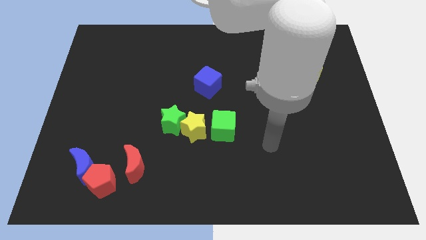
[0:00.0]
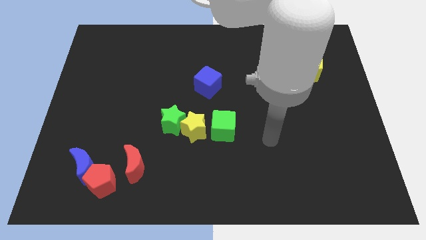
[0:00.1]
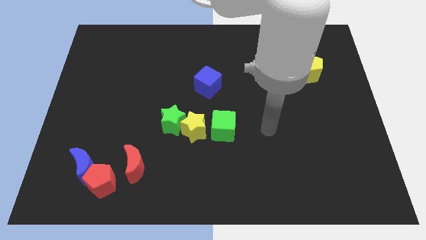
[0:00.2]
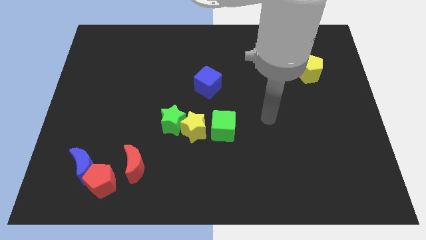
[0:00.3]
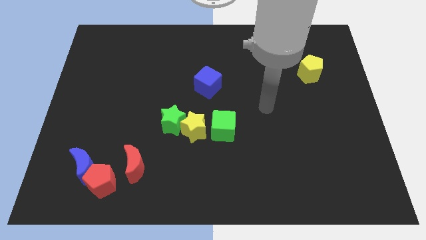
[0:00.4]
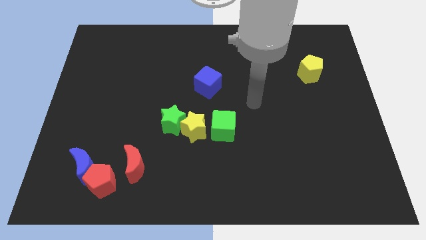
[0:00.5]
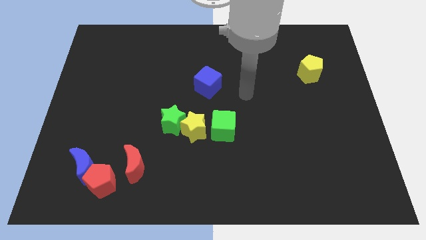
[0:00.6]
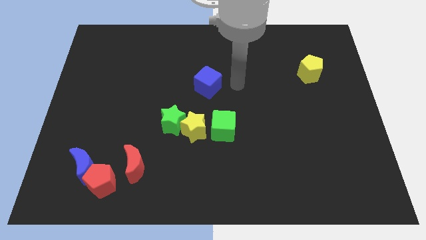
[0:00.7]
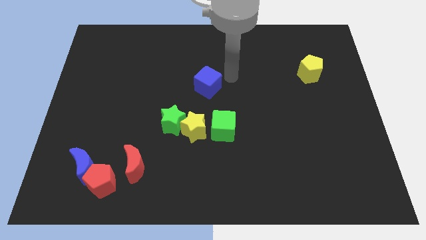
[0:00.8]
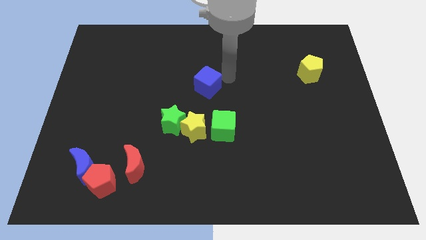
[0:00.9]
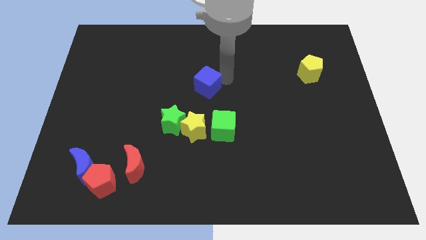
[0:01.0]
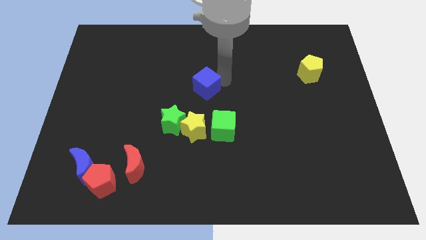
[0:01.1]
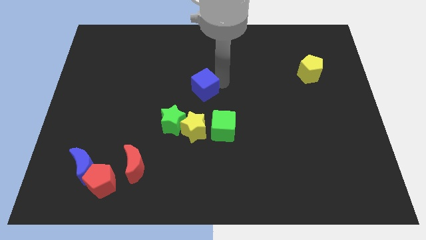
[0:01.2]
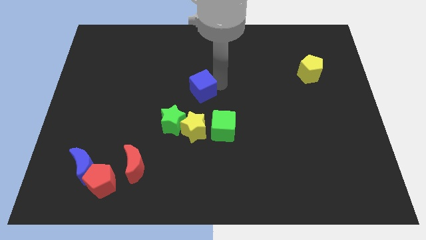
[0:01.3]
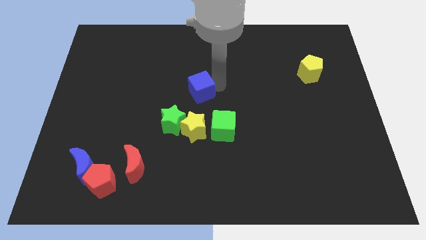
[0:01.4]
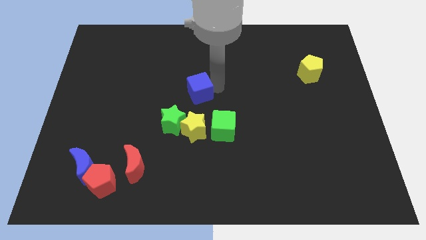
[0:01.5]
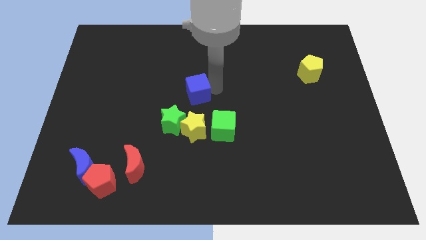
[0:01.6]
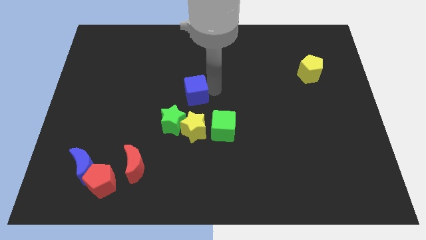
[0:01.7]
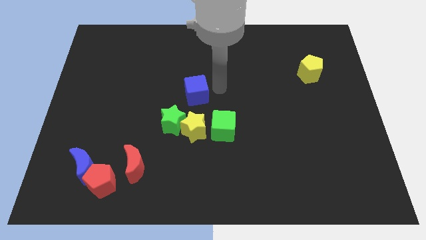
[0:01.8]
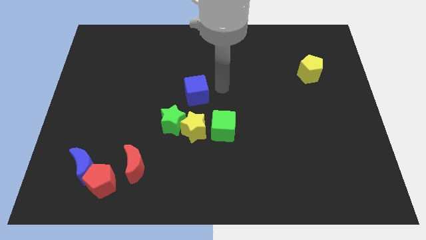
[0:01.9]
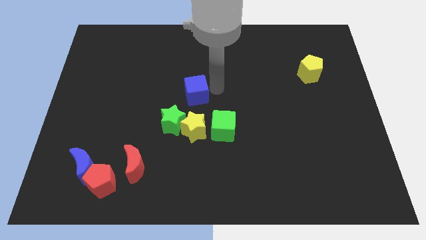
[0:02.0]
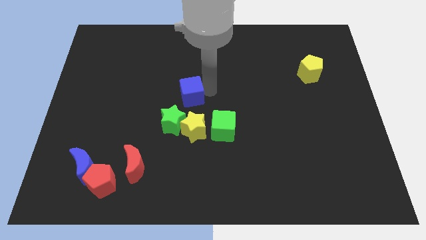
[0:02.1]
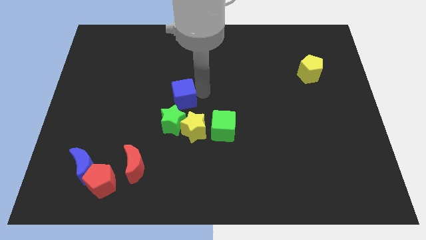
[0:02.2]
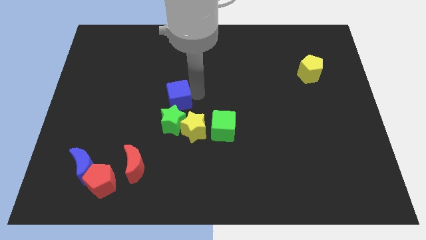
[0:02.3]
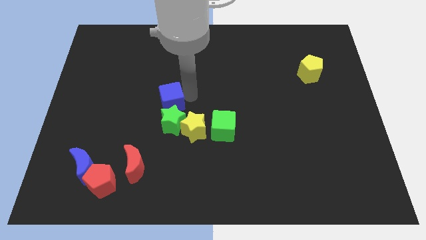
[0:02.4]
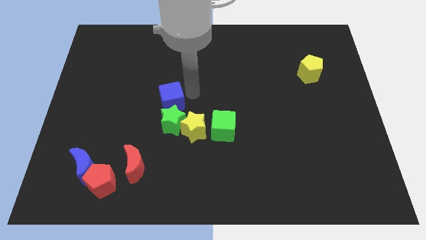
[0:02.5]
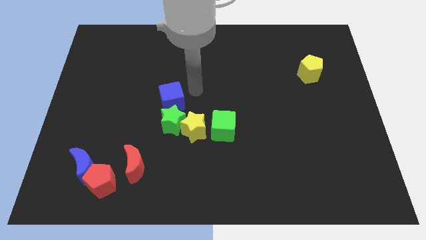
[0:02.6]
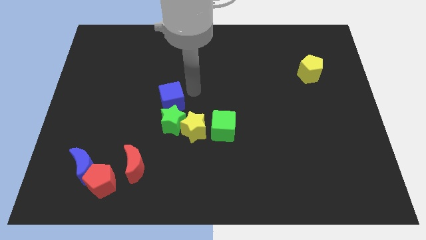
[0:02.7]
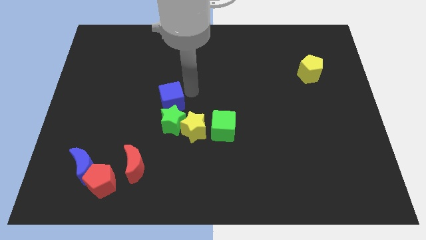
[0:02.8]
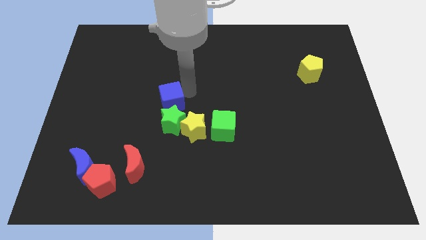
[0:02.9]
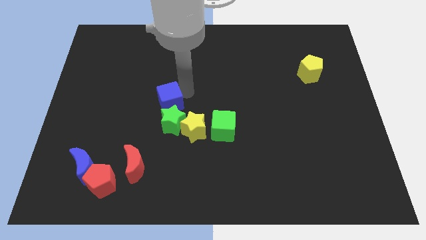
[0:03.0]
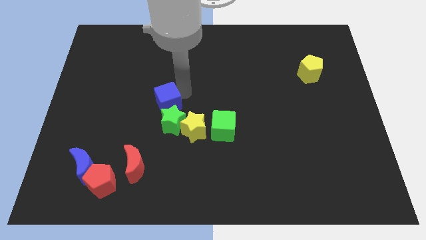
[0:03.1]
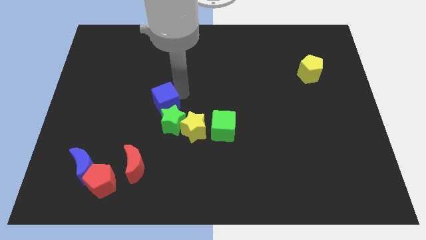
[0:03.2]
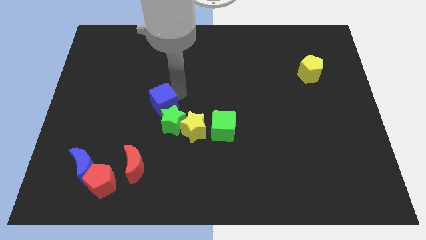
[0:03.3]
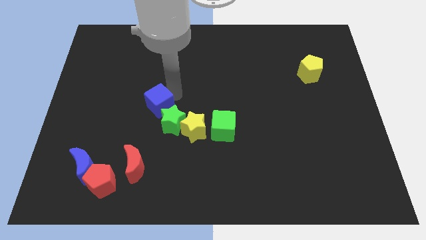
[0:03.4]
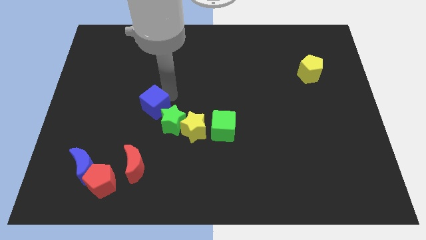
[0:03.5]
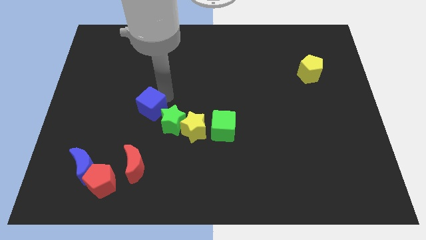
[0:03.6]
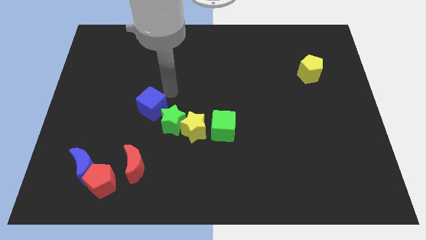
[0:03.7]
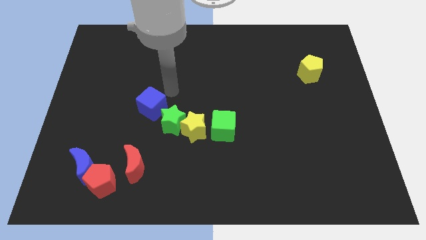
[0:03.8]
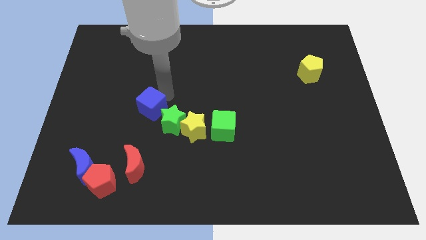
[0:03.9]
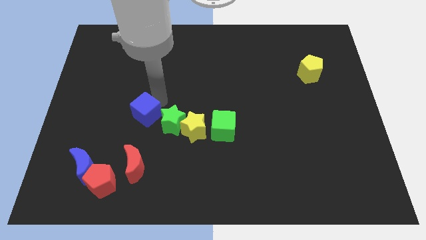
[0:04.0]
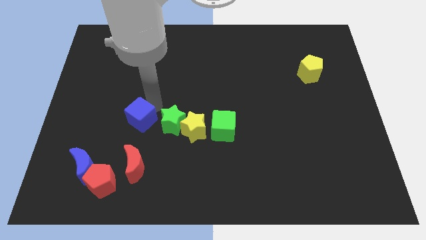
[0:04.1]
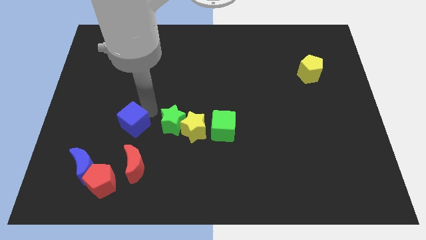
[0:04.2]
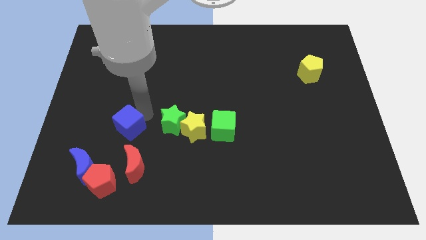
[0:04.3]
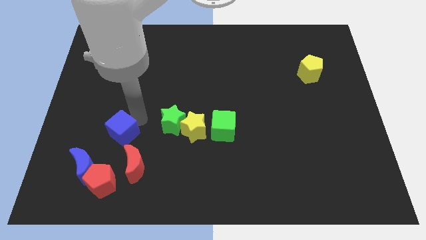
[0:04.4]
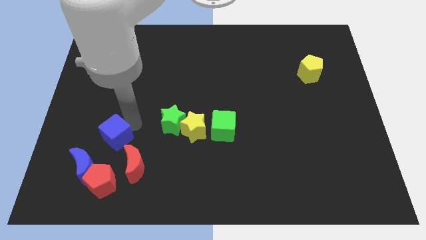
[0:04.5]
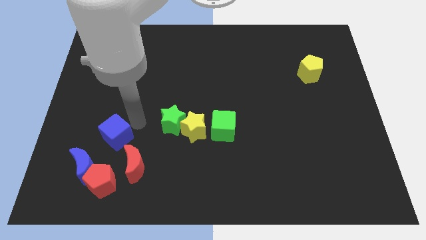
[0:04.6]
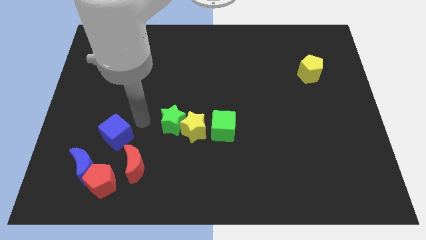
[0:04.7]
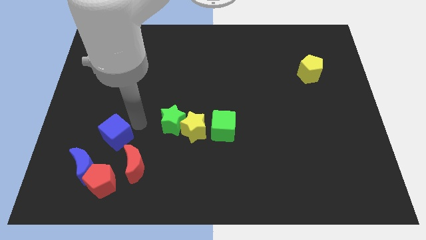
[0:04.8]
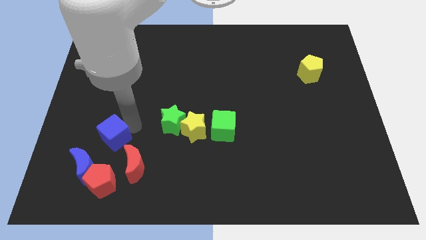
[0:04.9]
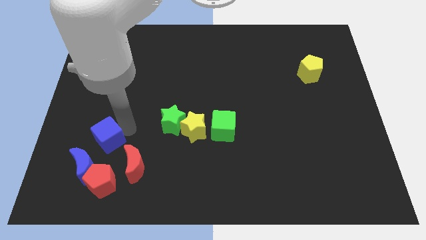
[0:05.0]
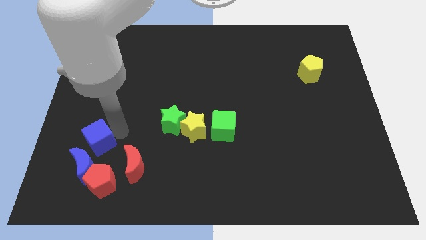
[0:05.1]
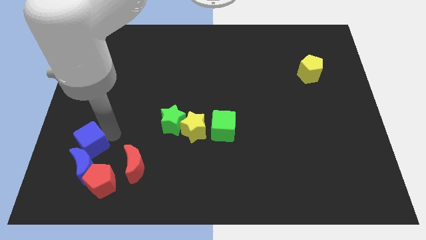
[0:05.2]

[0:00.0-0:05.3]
put the blue cube to the top left side of the red pentagon

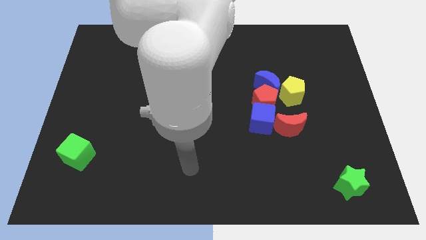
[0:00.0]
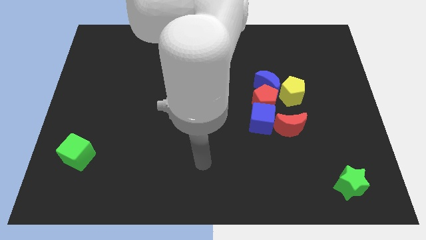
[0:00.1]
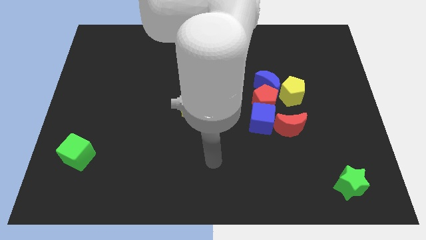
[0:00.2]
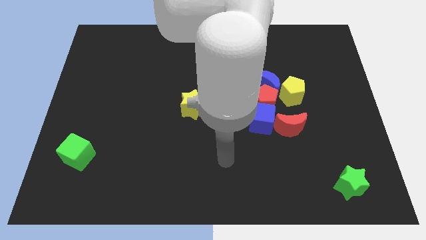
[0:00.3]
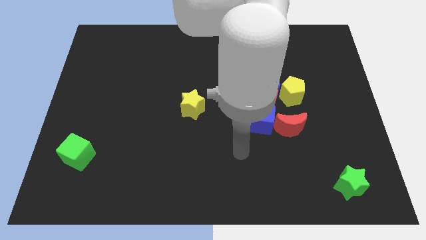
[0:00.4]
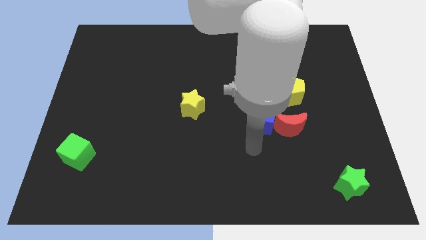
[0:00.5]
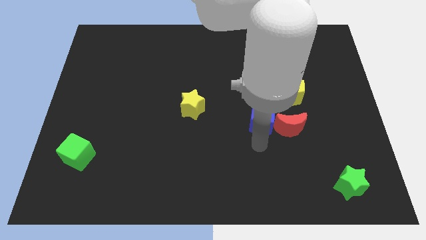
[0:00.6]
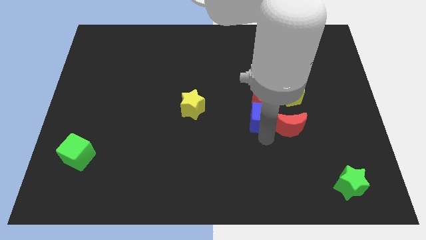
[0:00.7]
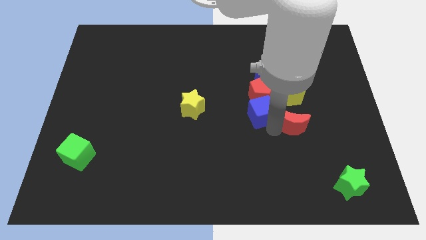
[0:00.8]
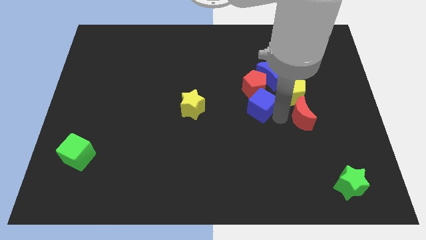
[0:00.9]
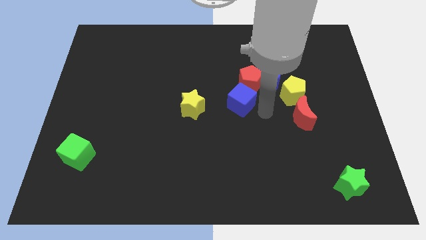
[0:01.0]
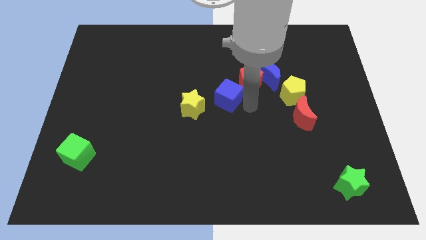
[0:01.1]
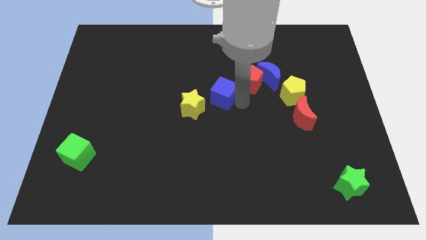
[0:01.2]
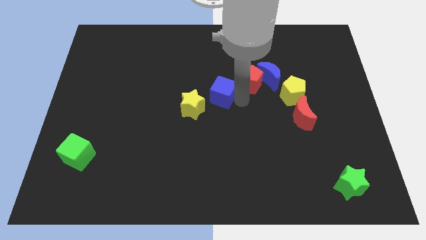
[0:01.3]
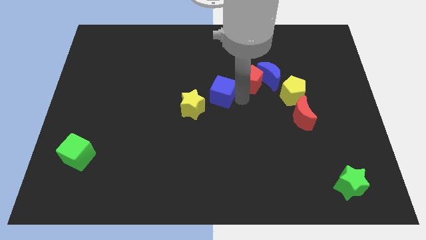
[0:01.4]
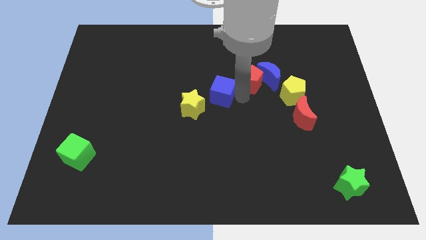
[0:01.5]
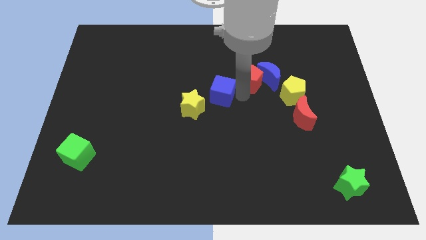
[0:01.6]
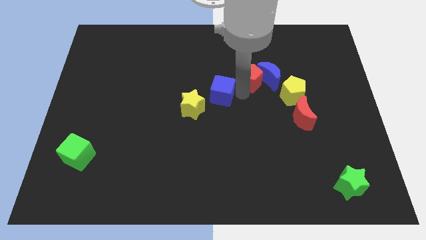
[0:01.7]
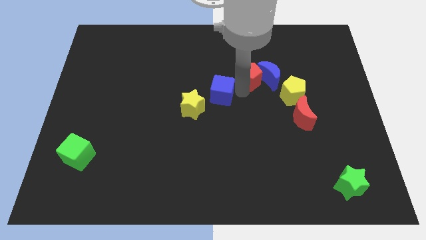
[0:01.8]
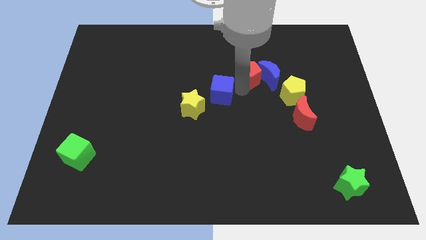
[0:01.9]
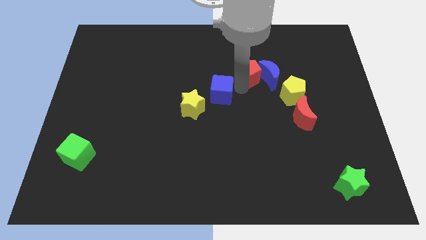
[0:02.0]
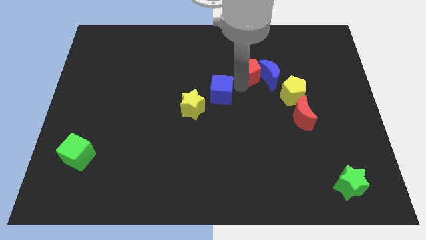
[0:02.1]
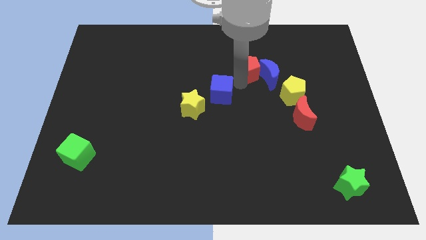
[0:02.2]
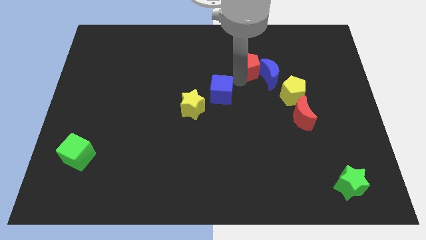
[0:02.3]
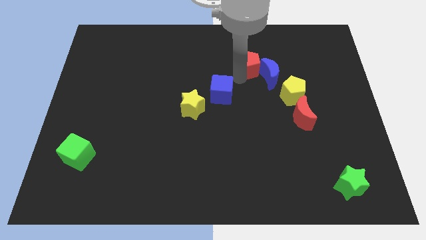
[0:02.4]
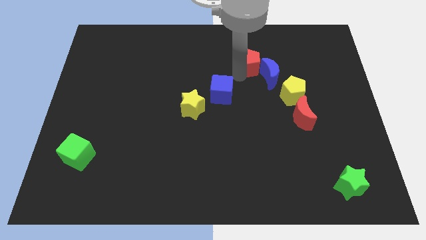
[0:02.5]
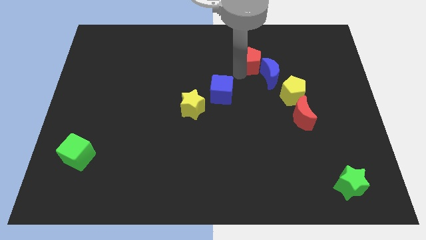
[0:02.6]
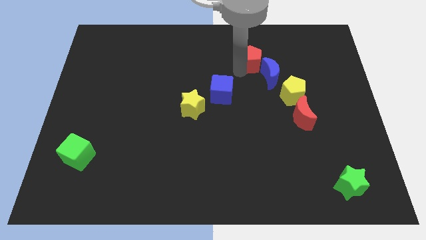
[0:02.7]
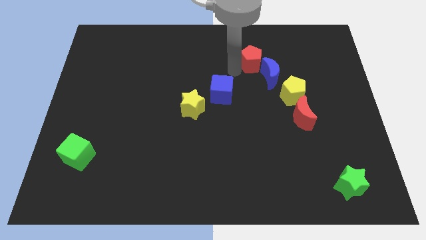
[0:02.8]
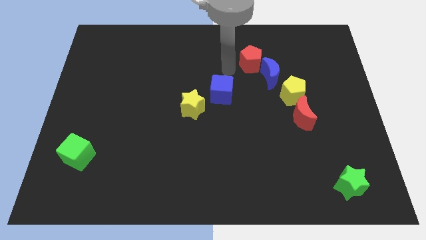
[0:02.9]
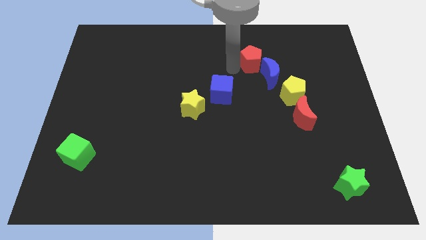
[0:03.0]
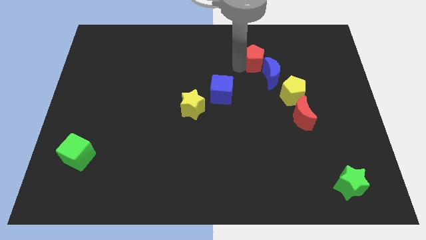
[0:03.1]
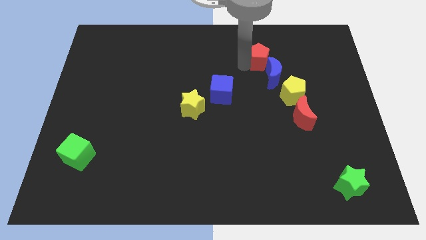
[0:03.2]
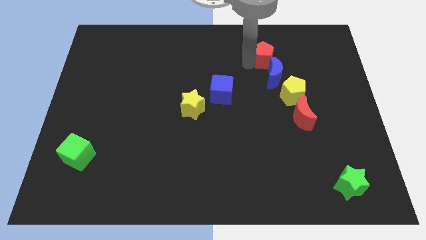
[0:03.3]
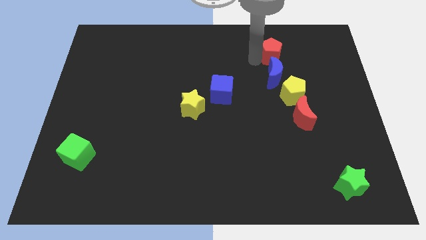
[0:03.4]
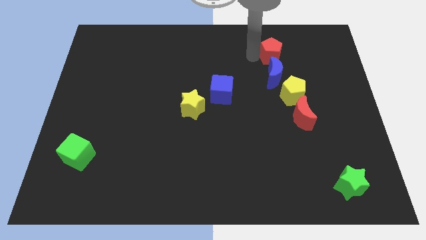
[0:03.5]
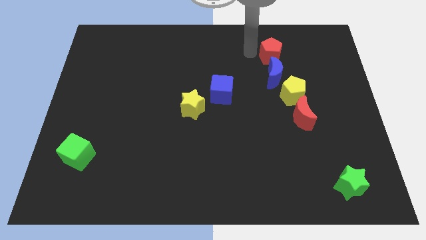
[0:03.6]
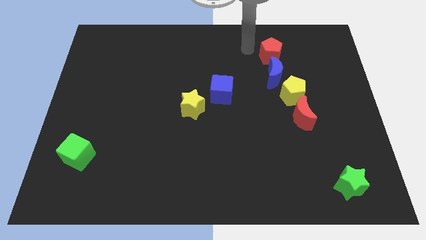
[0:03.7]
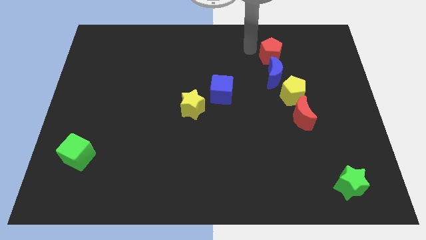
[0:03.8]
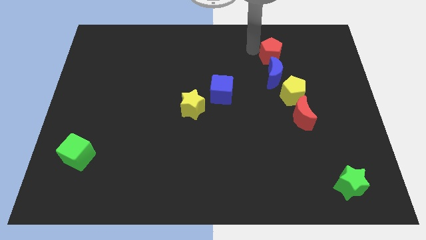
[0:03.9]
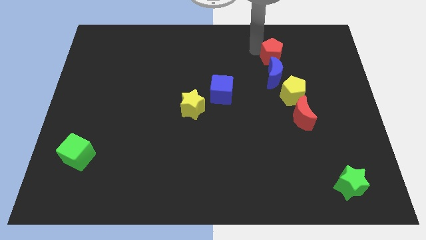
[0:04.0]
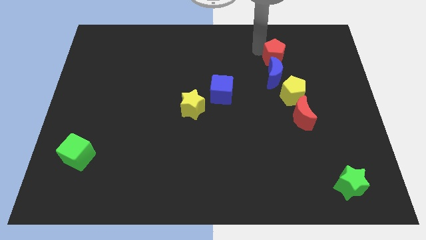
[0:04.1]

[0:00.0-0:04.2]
slide the red pentagon diagonally up and to the right of the blue moon
